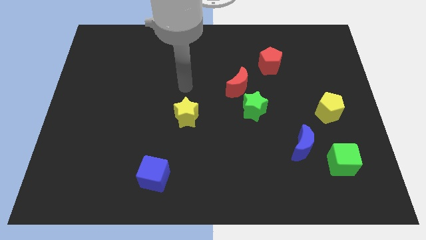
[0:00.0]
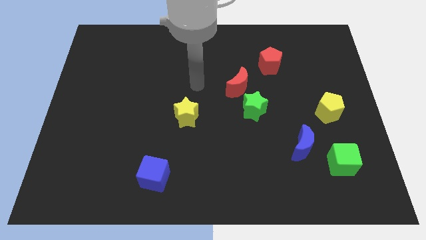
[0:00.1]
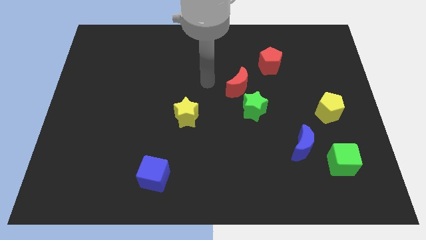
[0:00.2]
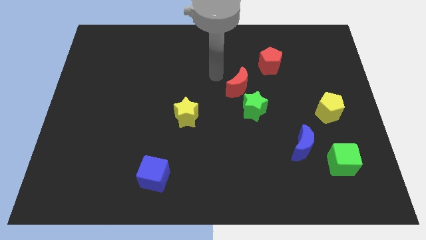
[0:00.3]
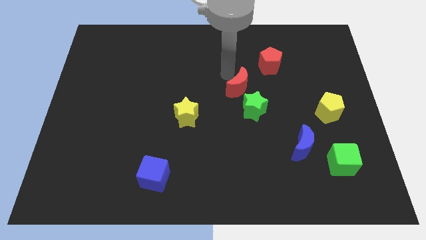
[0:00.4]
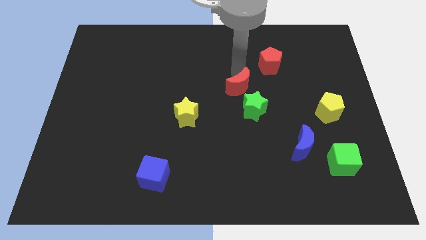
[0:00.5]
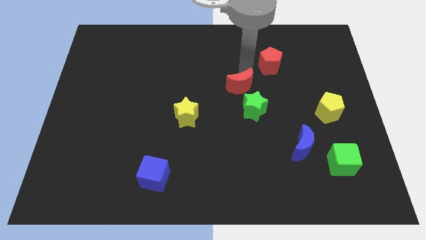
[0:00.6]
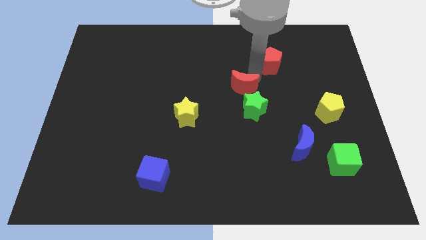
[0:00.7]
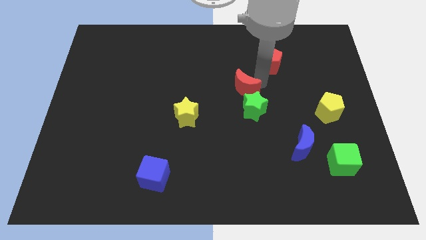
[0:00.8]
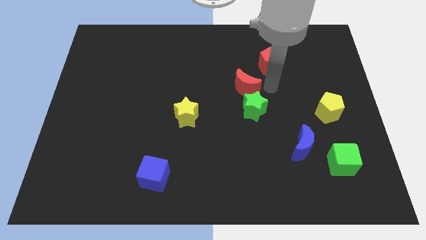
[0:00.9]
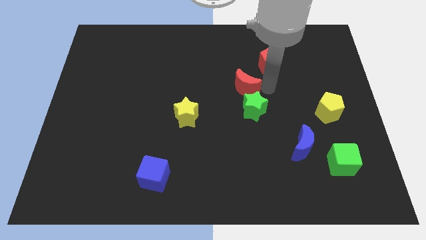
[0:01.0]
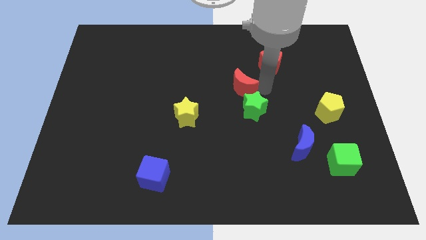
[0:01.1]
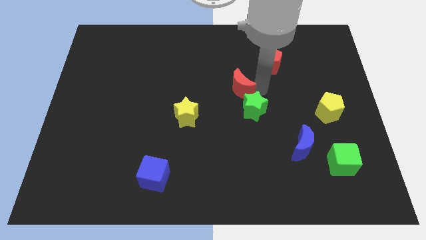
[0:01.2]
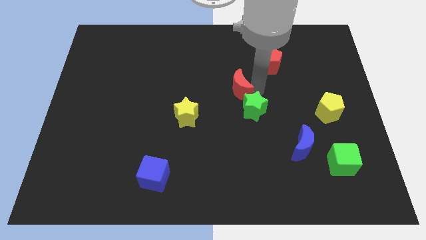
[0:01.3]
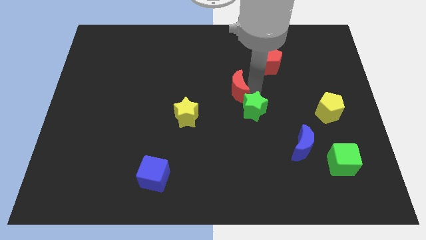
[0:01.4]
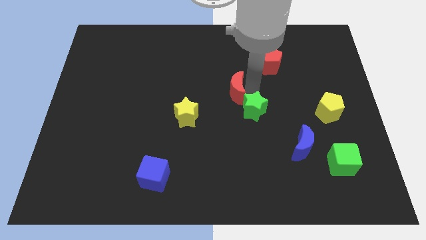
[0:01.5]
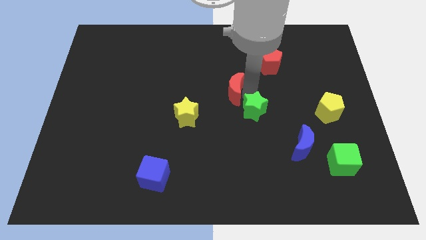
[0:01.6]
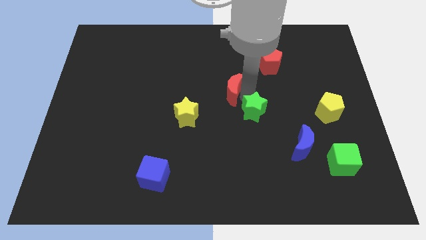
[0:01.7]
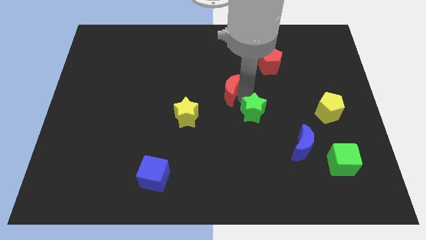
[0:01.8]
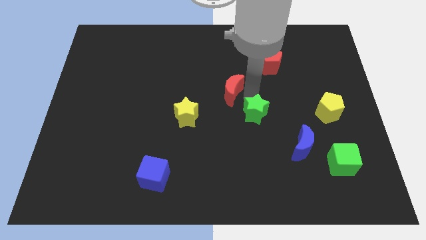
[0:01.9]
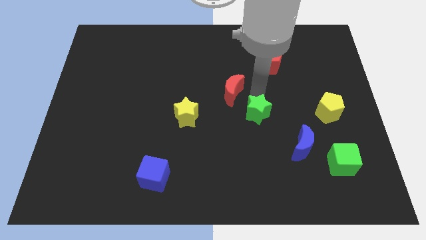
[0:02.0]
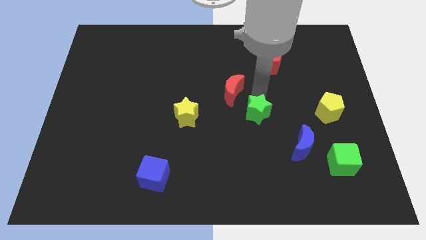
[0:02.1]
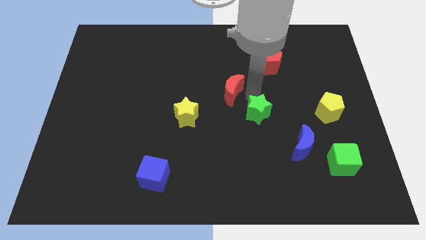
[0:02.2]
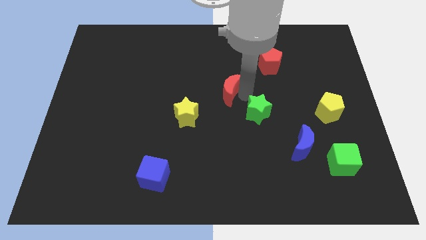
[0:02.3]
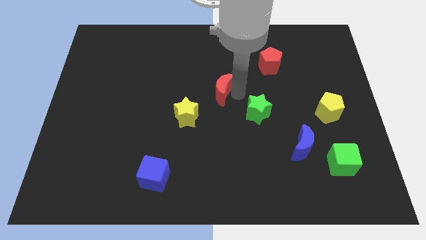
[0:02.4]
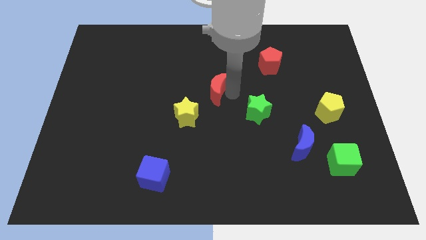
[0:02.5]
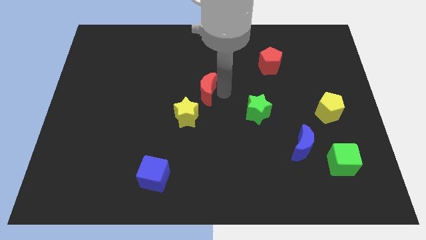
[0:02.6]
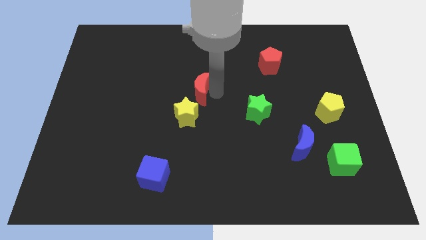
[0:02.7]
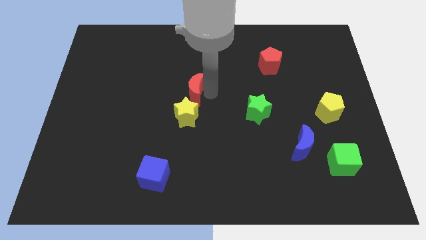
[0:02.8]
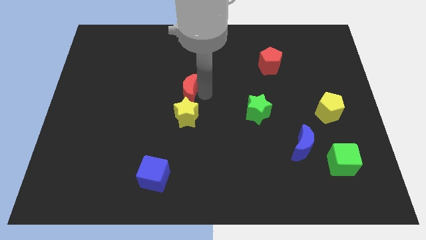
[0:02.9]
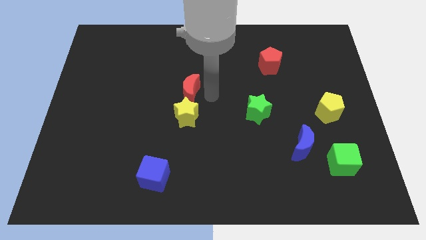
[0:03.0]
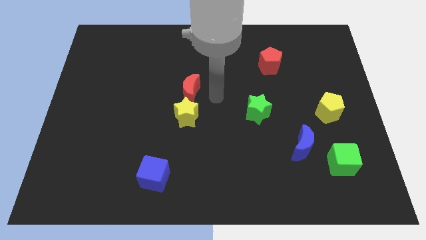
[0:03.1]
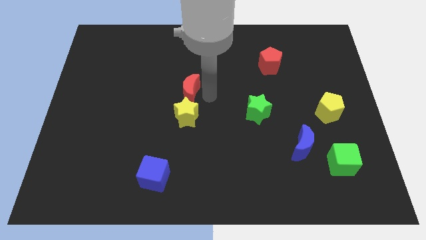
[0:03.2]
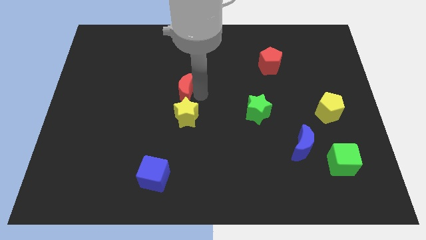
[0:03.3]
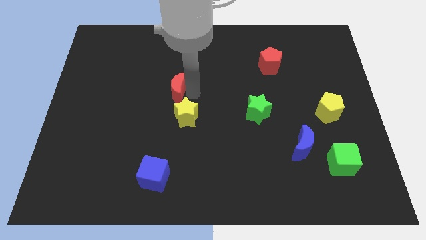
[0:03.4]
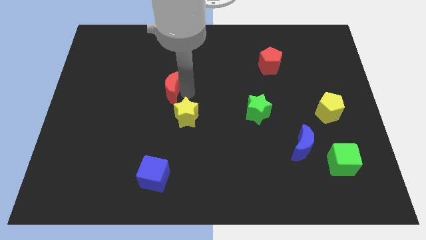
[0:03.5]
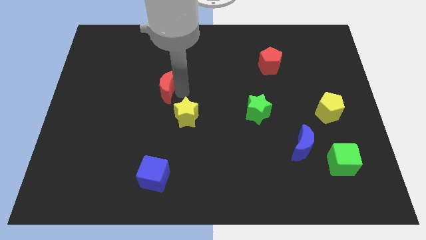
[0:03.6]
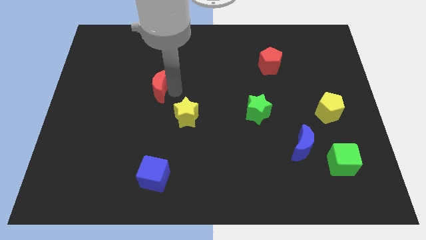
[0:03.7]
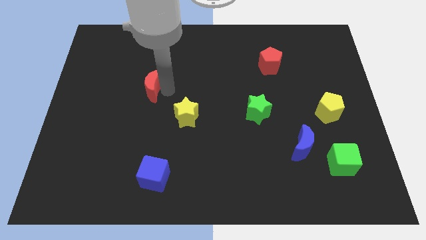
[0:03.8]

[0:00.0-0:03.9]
slide the red moon left

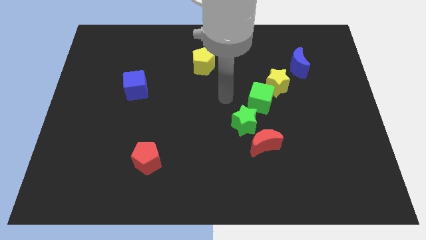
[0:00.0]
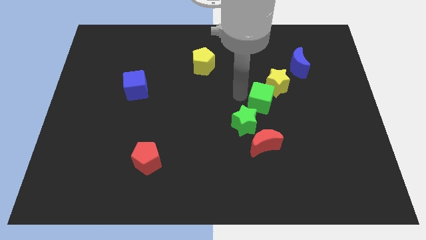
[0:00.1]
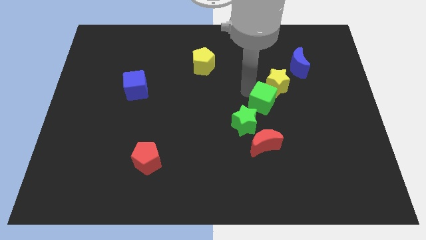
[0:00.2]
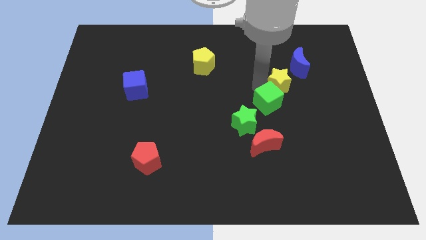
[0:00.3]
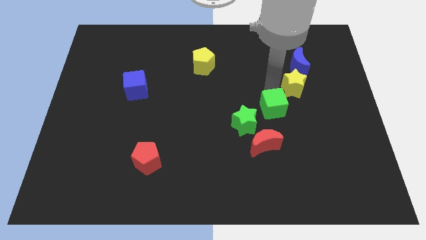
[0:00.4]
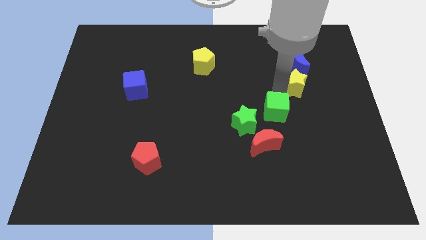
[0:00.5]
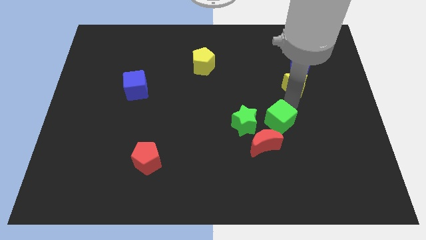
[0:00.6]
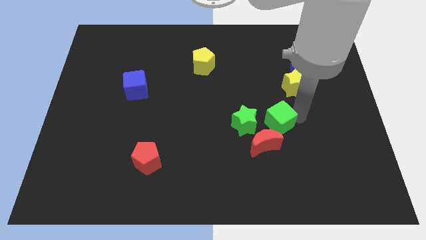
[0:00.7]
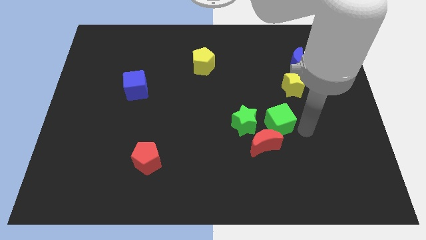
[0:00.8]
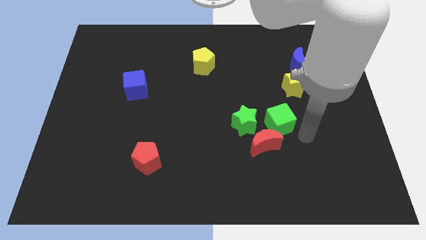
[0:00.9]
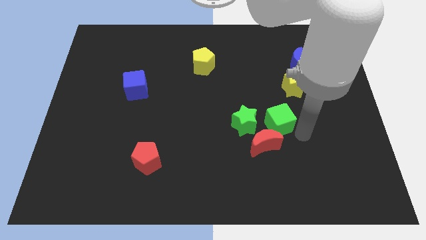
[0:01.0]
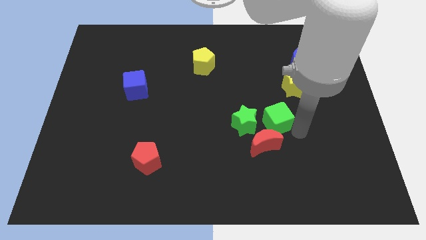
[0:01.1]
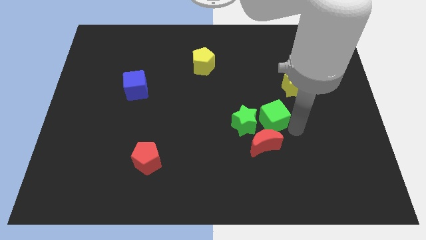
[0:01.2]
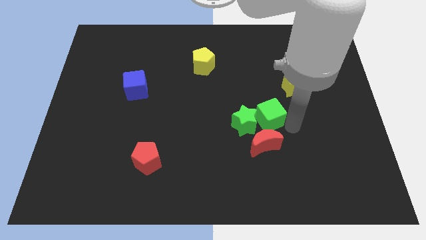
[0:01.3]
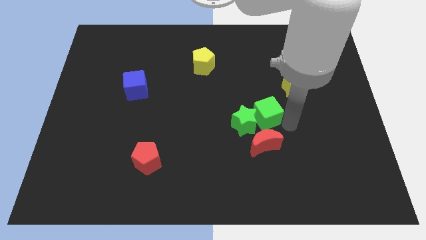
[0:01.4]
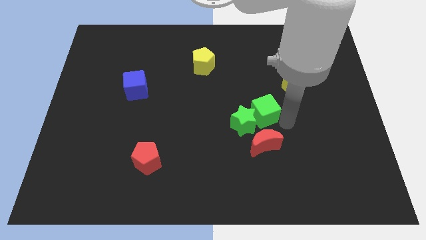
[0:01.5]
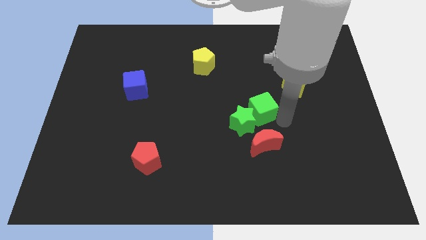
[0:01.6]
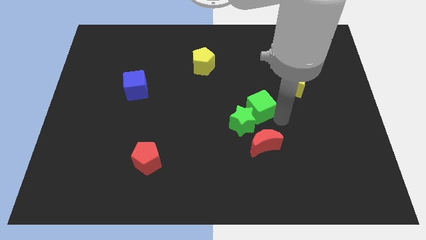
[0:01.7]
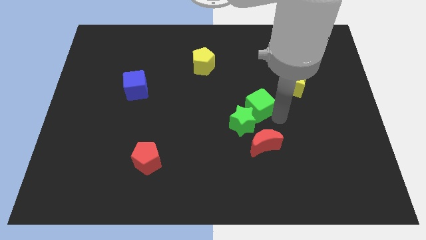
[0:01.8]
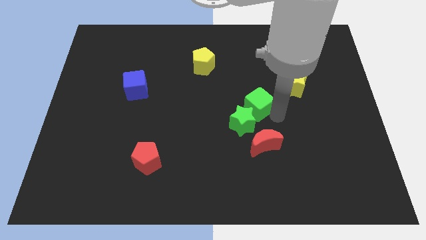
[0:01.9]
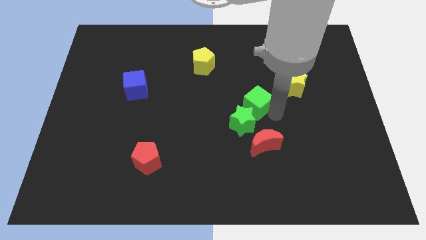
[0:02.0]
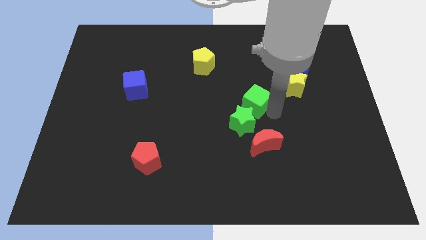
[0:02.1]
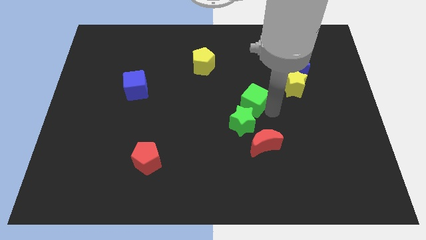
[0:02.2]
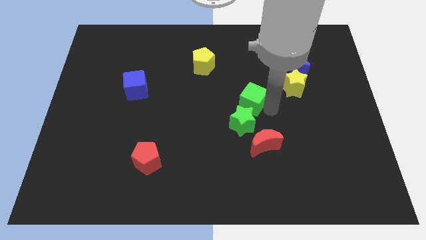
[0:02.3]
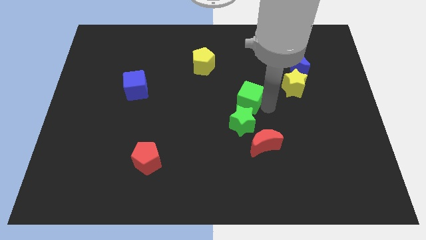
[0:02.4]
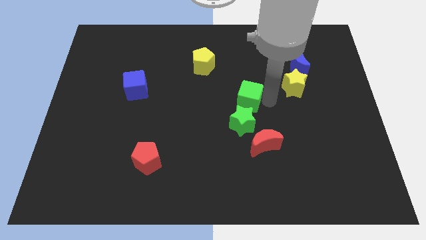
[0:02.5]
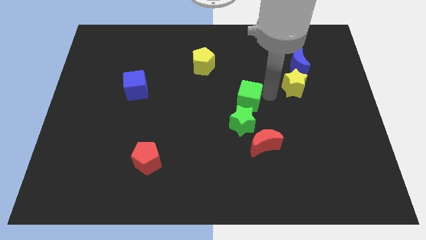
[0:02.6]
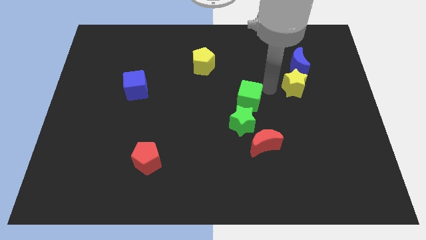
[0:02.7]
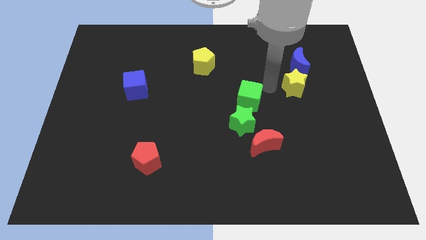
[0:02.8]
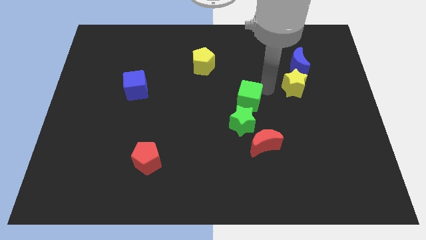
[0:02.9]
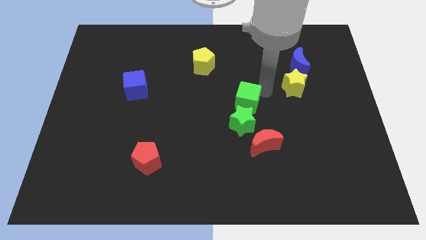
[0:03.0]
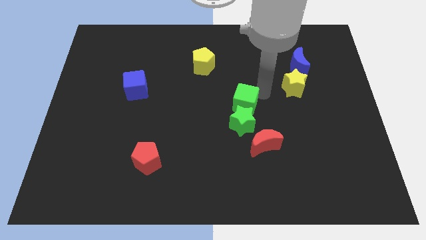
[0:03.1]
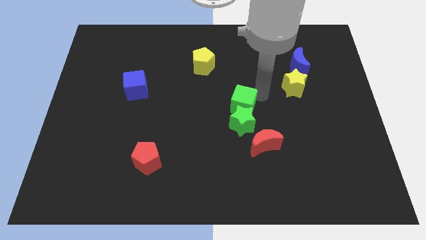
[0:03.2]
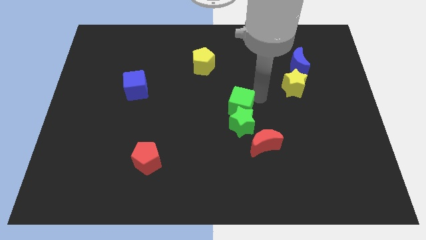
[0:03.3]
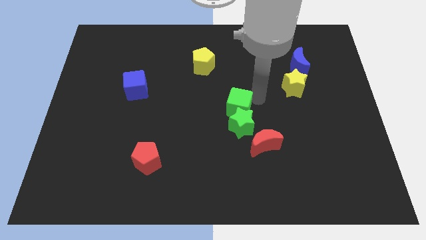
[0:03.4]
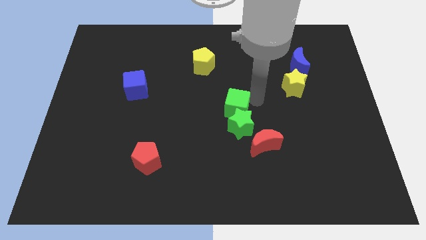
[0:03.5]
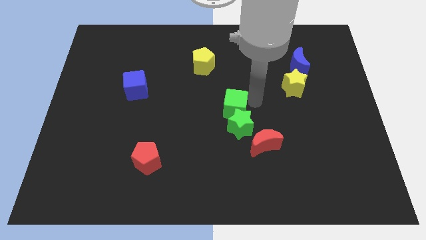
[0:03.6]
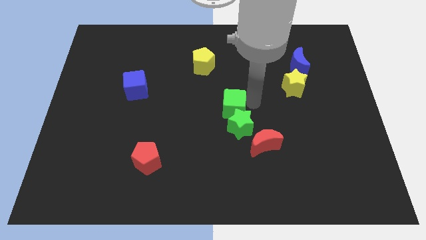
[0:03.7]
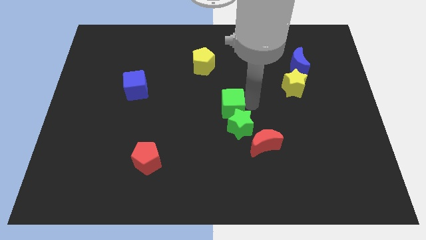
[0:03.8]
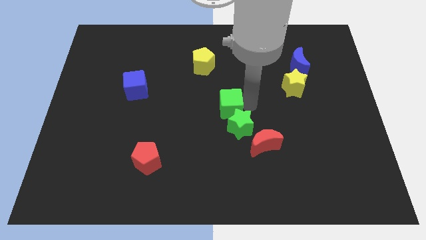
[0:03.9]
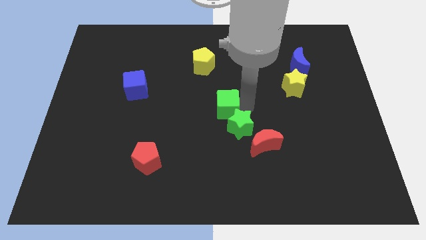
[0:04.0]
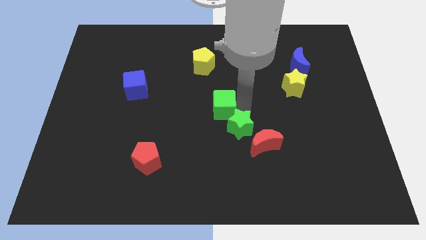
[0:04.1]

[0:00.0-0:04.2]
move the green cube a little bit down and to the left diagonally
